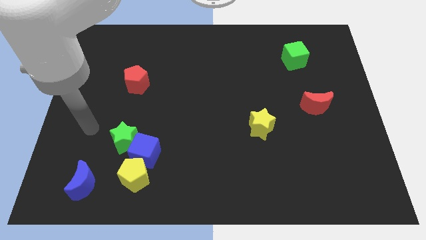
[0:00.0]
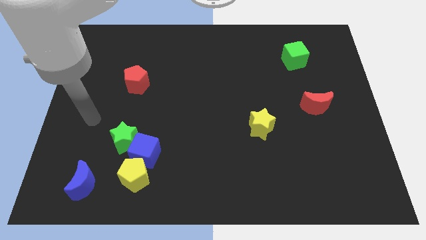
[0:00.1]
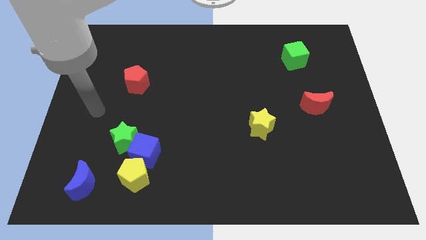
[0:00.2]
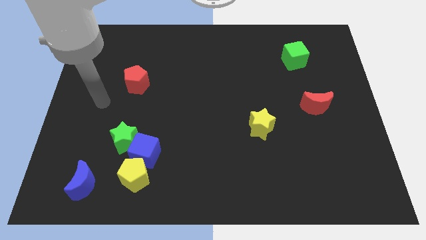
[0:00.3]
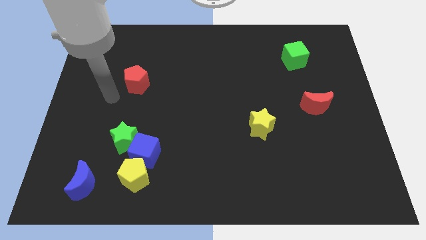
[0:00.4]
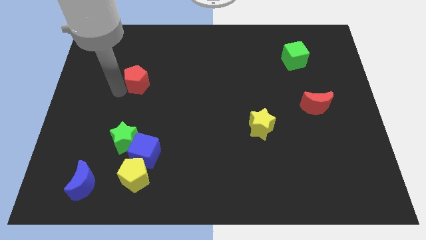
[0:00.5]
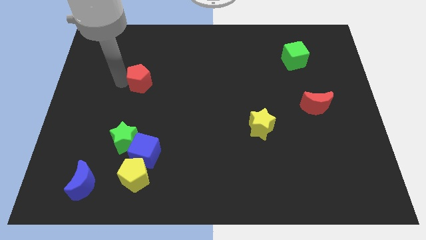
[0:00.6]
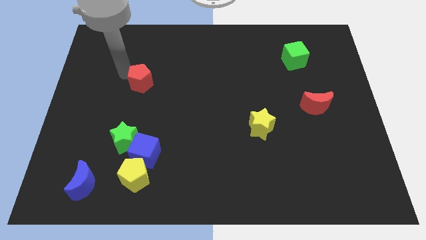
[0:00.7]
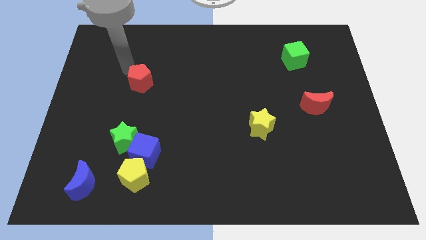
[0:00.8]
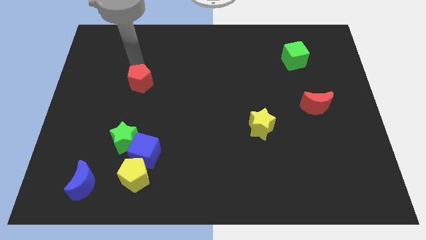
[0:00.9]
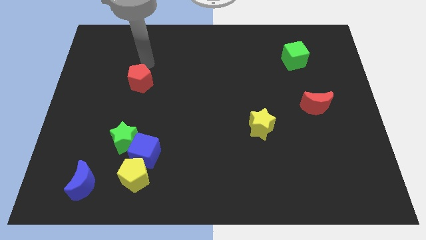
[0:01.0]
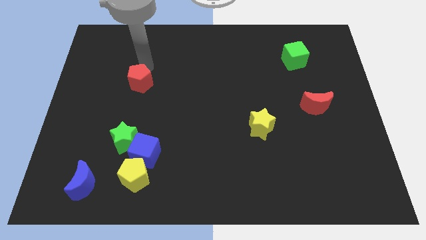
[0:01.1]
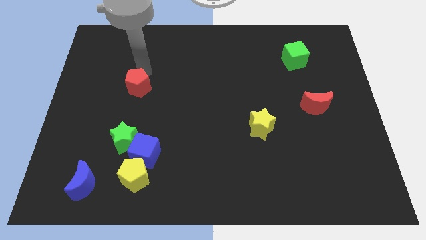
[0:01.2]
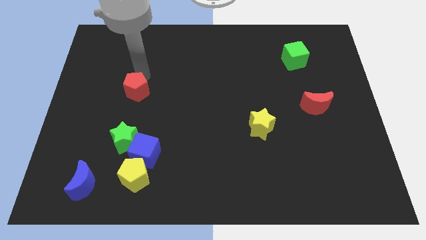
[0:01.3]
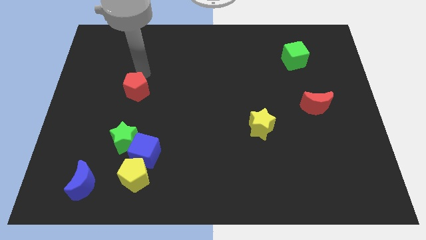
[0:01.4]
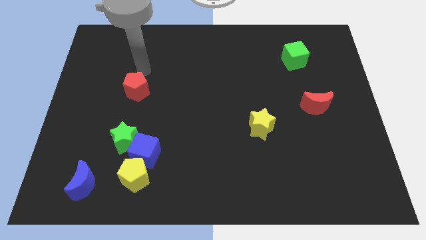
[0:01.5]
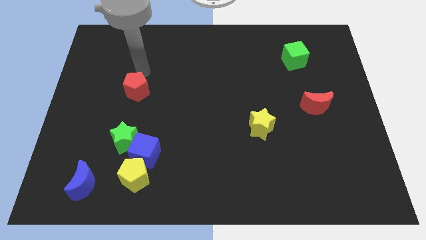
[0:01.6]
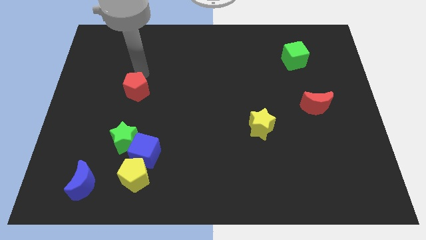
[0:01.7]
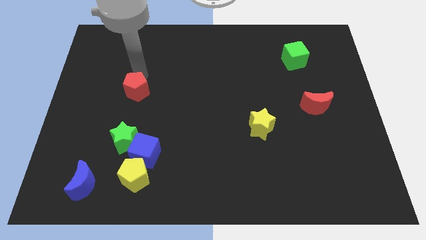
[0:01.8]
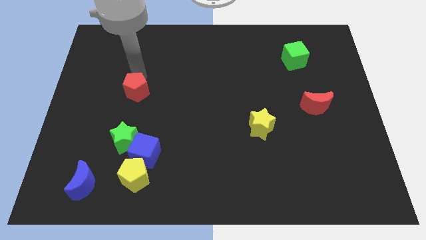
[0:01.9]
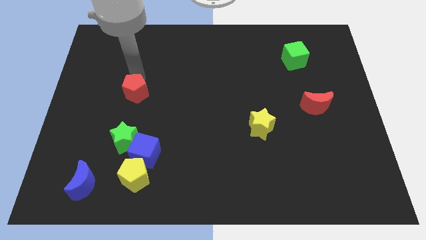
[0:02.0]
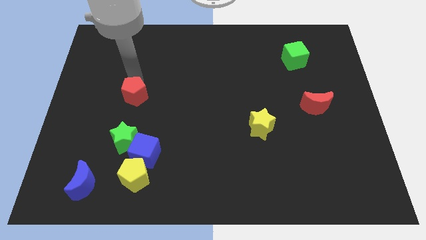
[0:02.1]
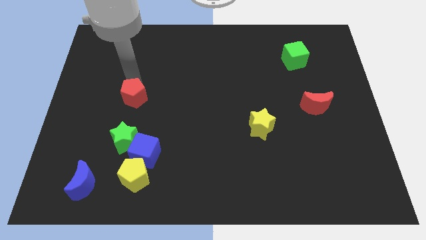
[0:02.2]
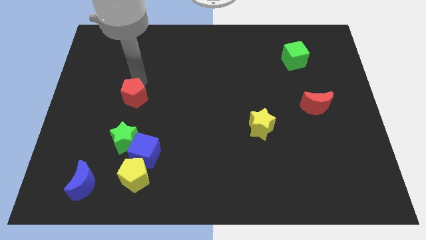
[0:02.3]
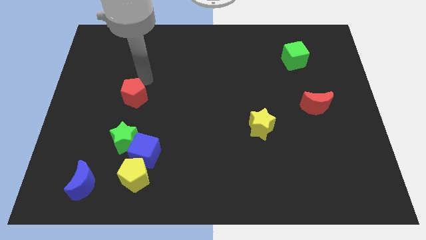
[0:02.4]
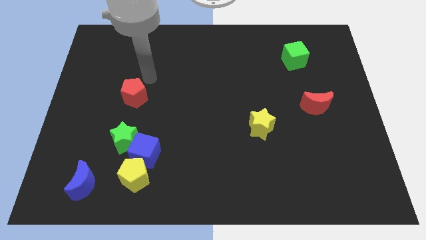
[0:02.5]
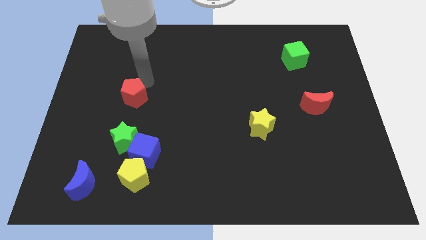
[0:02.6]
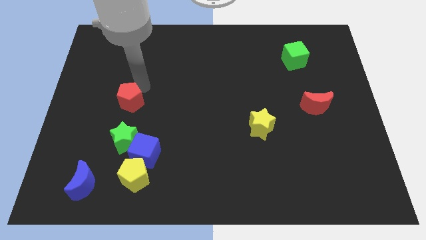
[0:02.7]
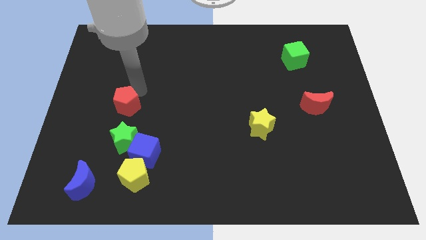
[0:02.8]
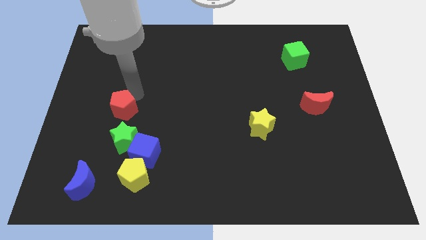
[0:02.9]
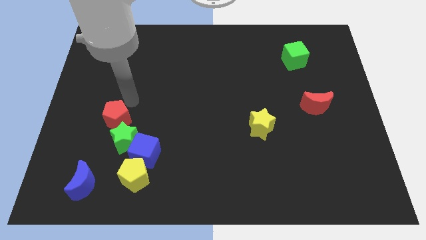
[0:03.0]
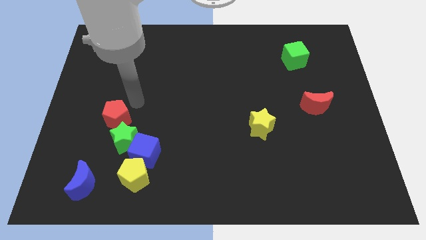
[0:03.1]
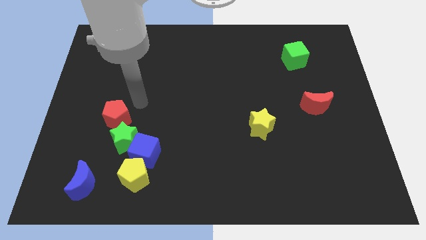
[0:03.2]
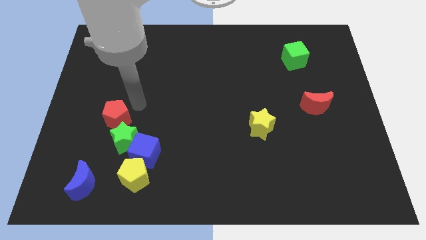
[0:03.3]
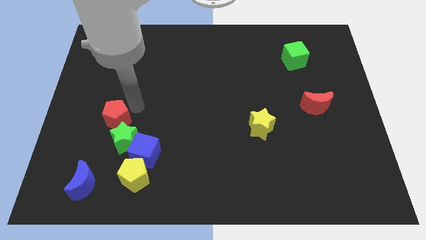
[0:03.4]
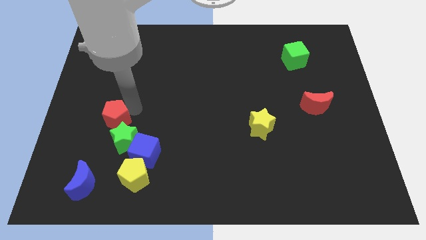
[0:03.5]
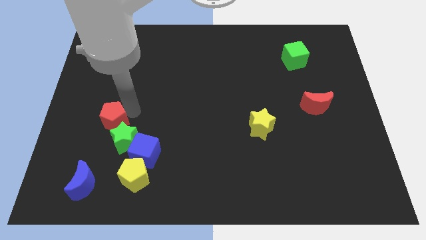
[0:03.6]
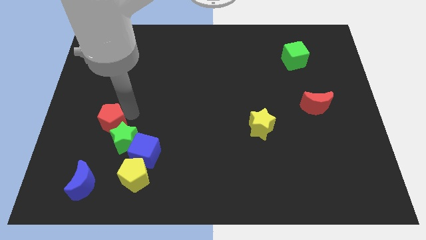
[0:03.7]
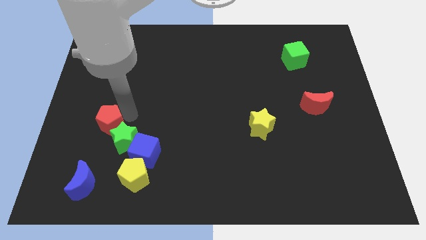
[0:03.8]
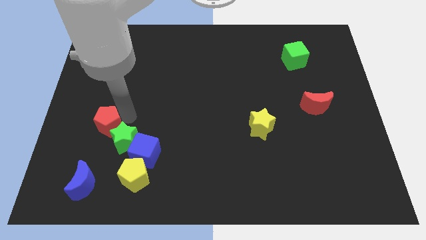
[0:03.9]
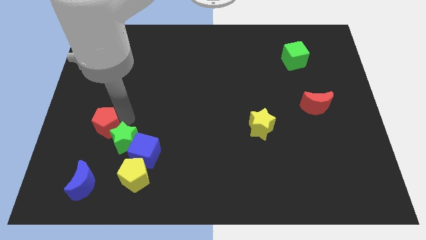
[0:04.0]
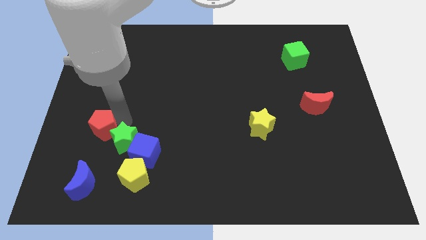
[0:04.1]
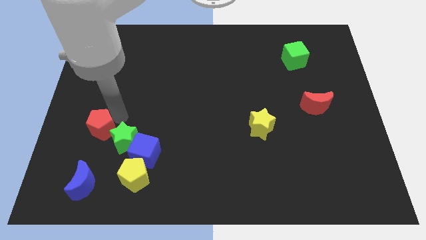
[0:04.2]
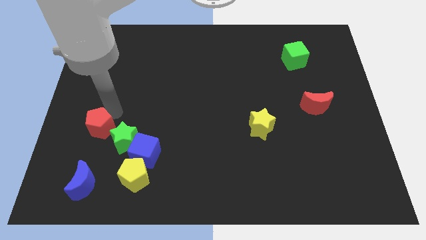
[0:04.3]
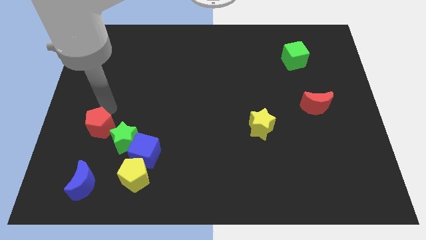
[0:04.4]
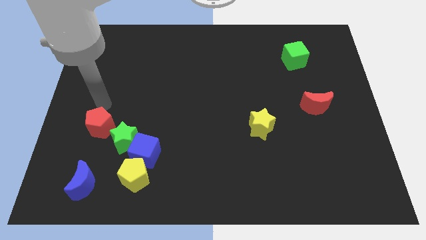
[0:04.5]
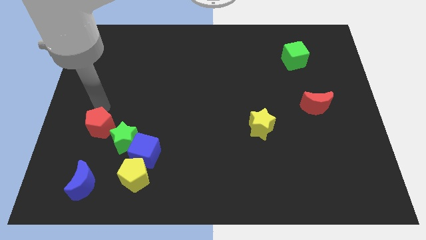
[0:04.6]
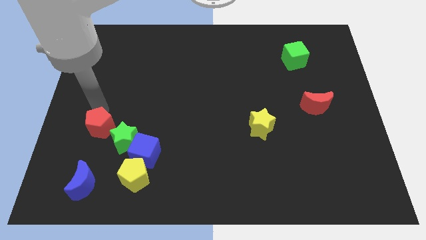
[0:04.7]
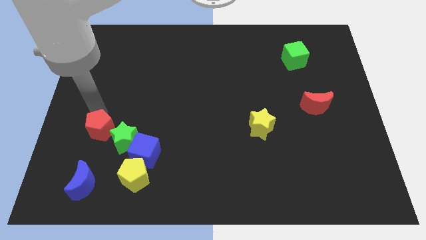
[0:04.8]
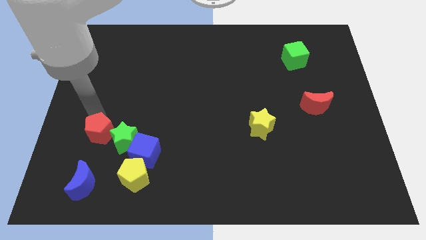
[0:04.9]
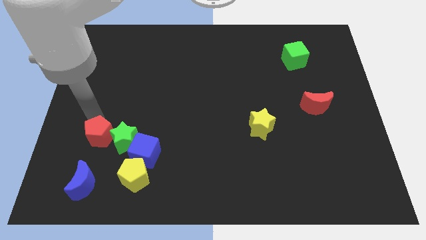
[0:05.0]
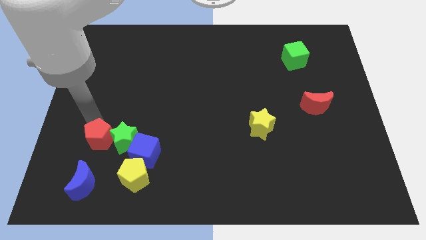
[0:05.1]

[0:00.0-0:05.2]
push the red pentagon diagonally down and to the left of the green star

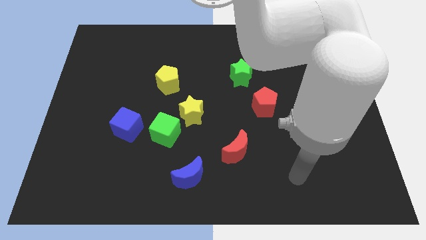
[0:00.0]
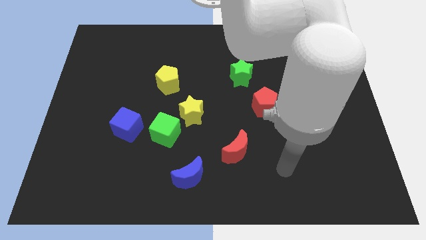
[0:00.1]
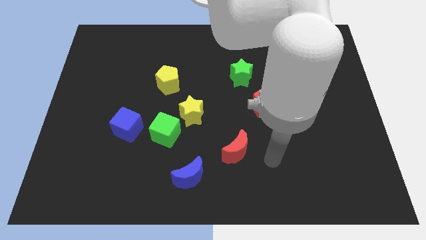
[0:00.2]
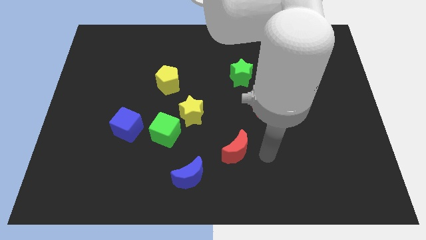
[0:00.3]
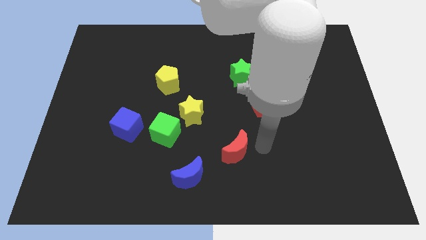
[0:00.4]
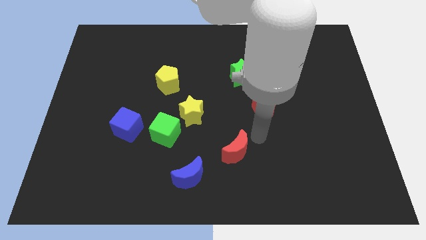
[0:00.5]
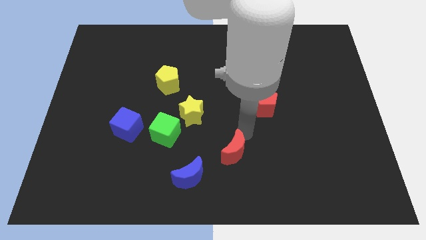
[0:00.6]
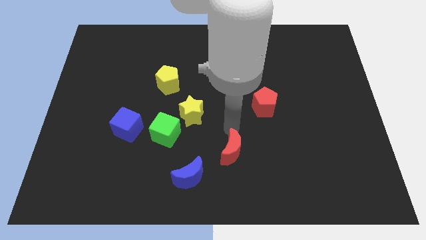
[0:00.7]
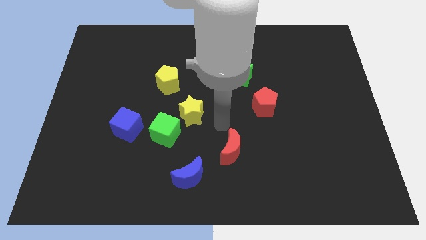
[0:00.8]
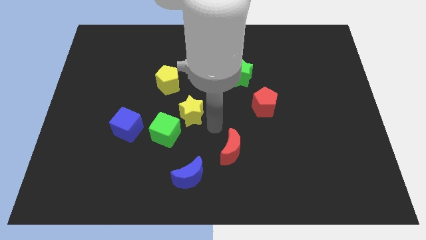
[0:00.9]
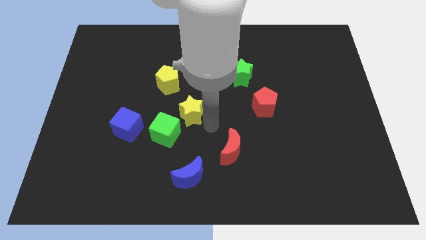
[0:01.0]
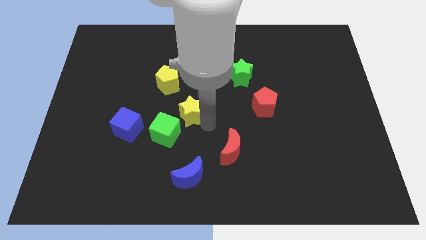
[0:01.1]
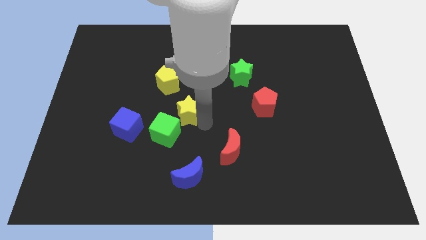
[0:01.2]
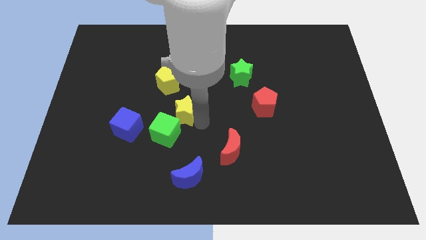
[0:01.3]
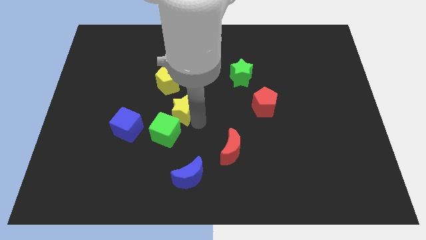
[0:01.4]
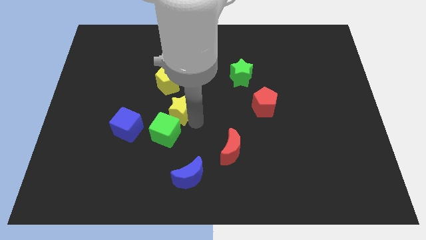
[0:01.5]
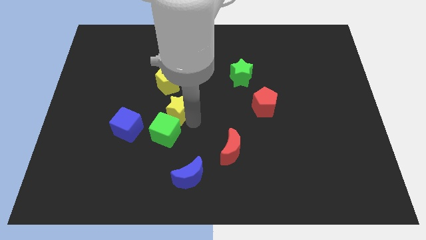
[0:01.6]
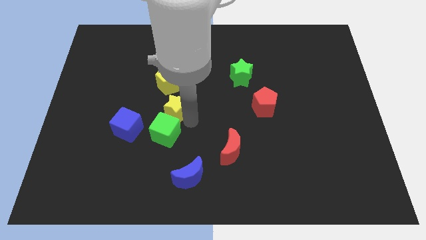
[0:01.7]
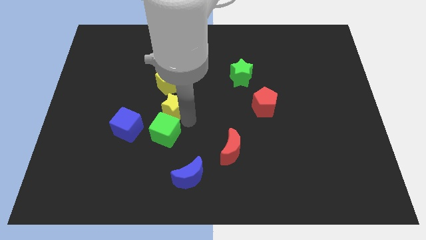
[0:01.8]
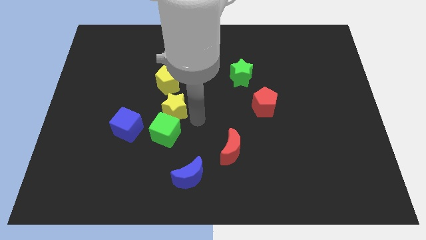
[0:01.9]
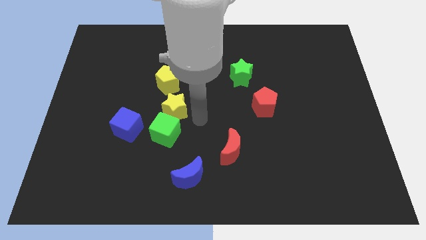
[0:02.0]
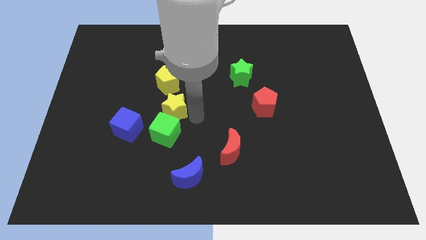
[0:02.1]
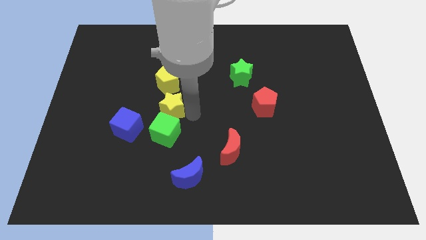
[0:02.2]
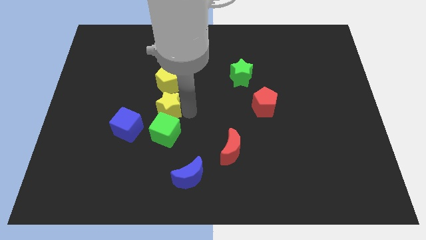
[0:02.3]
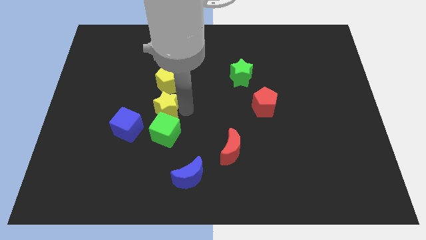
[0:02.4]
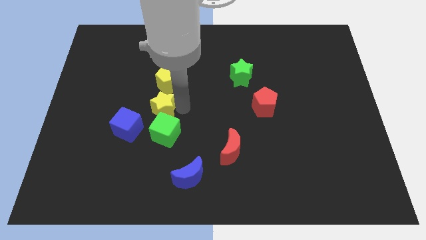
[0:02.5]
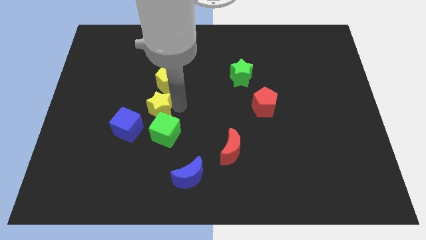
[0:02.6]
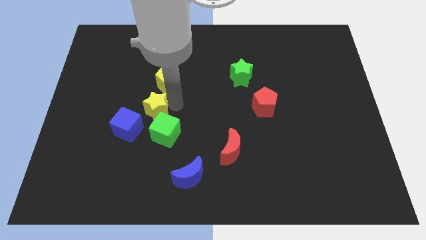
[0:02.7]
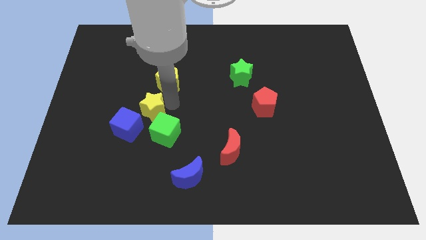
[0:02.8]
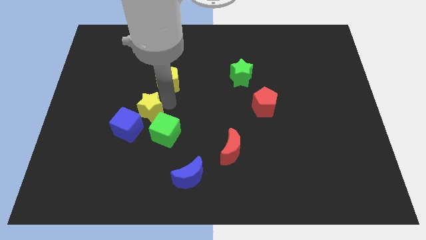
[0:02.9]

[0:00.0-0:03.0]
push the yellow star above the blue cube
